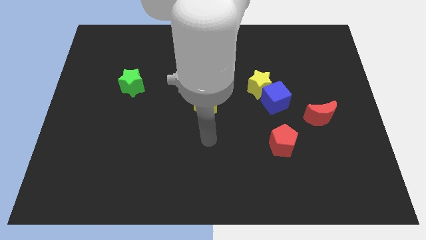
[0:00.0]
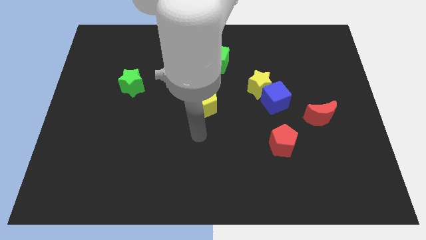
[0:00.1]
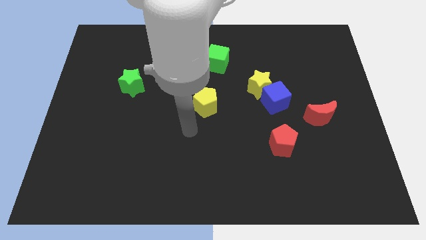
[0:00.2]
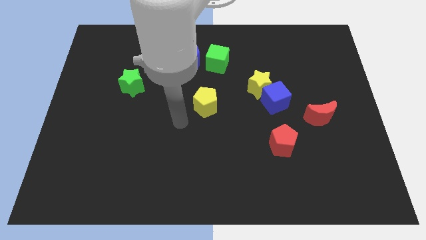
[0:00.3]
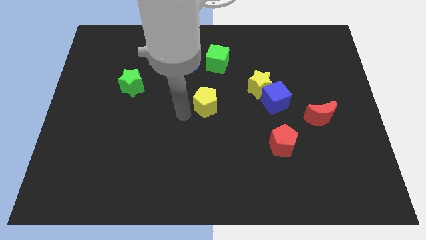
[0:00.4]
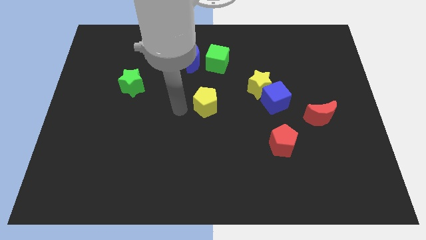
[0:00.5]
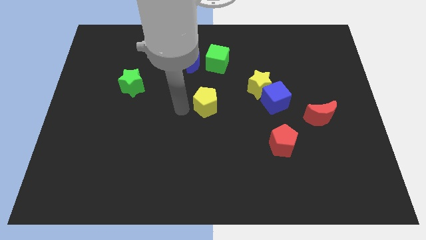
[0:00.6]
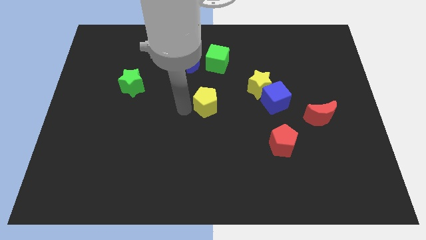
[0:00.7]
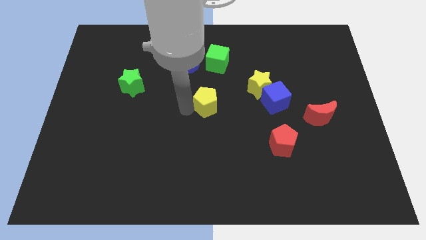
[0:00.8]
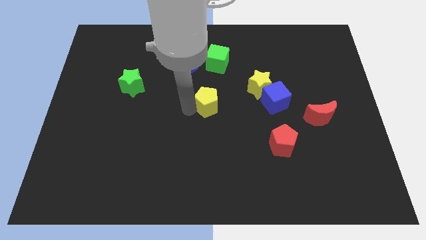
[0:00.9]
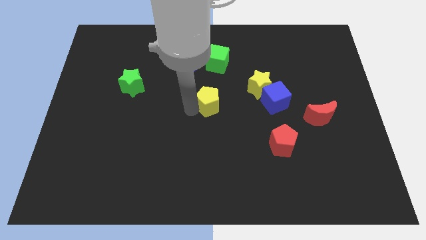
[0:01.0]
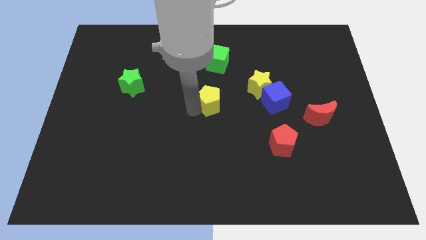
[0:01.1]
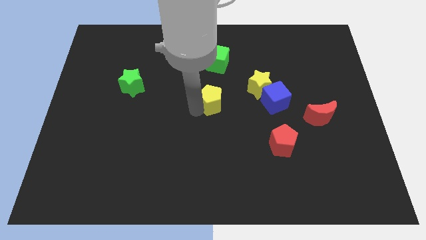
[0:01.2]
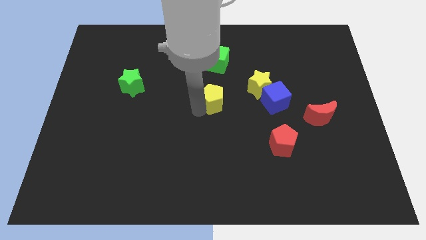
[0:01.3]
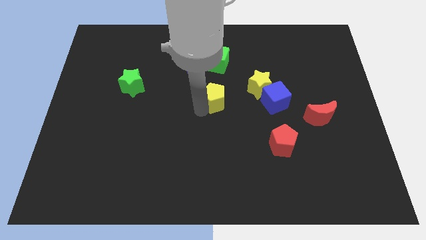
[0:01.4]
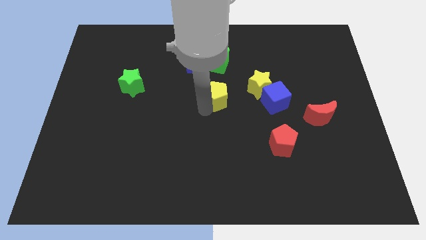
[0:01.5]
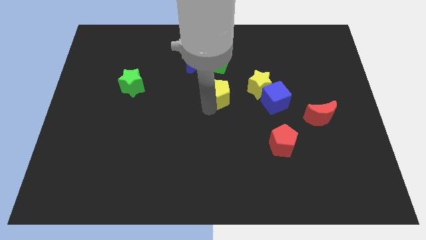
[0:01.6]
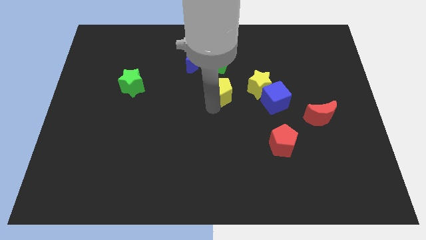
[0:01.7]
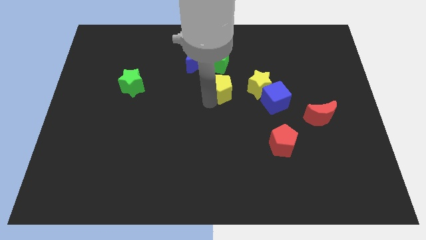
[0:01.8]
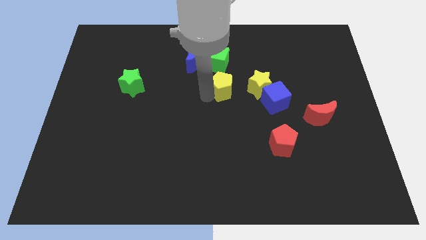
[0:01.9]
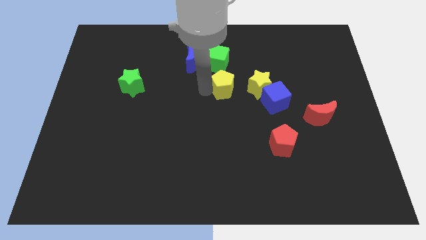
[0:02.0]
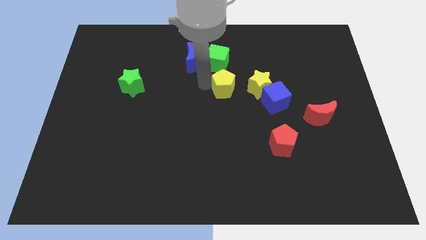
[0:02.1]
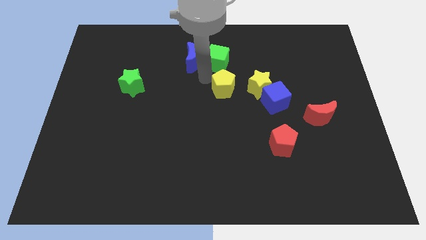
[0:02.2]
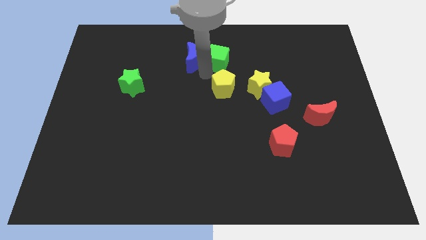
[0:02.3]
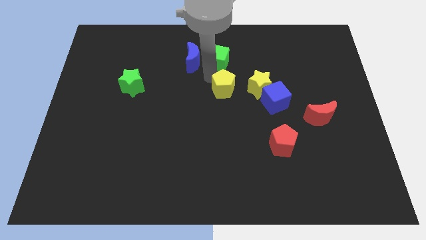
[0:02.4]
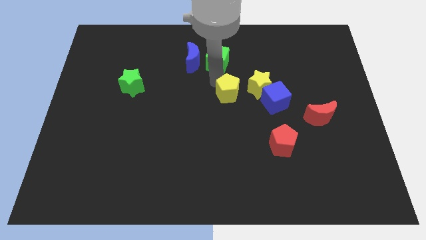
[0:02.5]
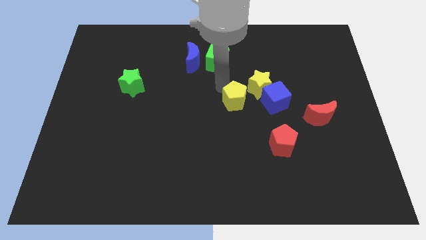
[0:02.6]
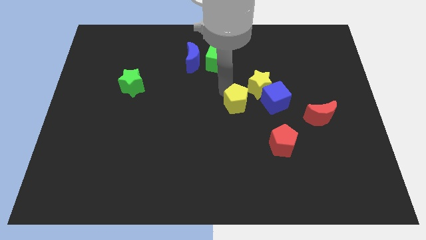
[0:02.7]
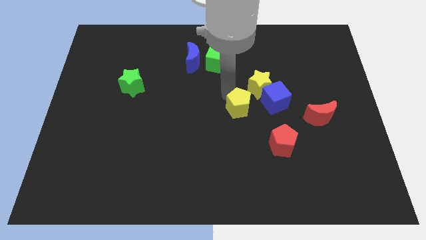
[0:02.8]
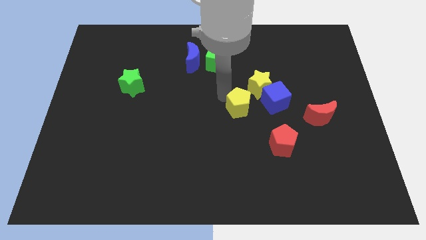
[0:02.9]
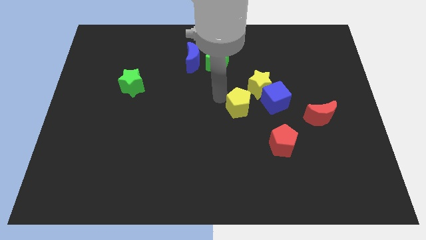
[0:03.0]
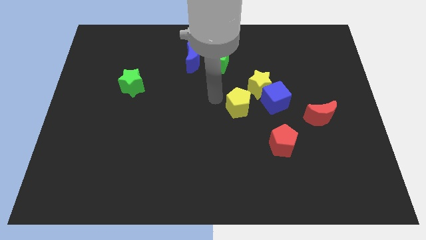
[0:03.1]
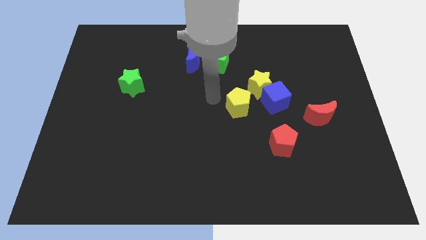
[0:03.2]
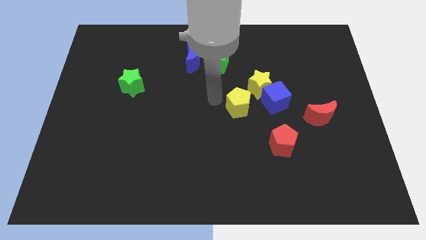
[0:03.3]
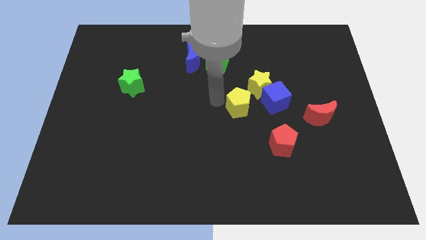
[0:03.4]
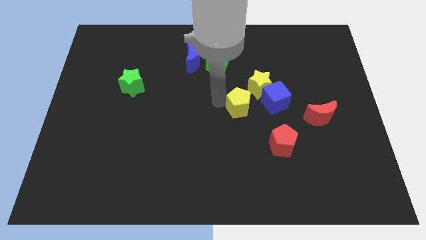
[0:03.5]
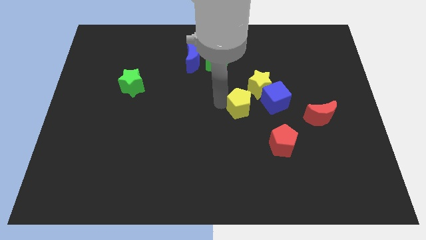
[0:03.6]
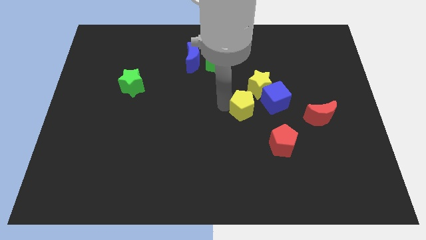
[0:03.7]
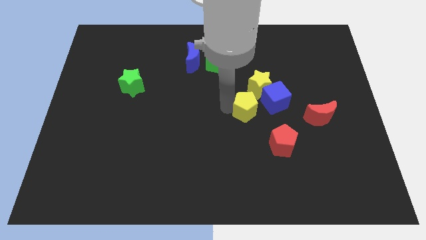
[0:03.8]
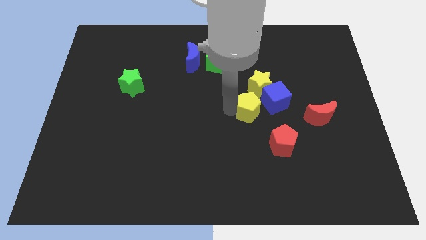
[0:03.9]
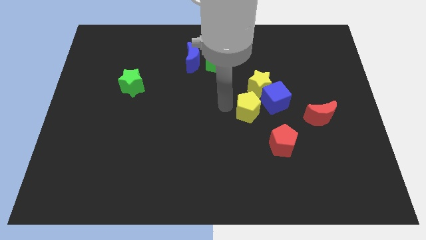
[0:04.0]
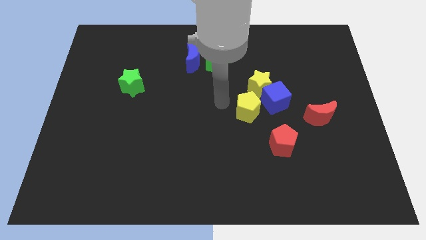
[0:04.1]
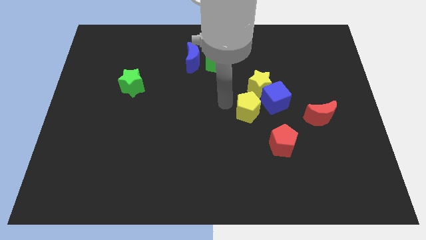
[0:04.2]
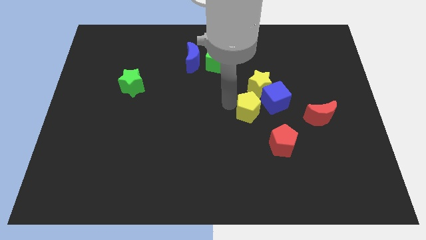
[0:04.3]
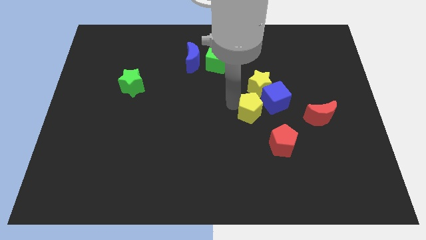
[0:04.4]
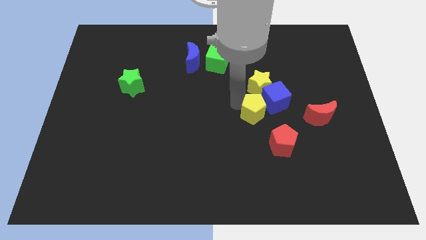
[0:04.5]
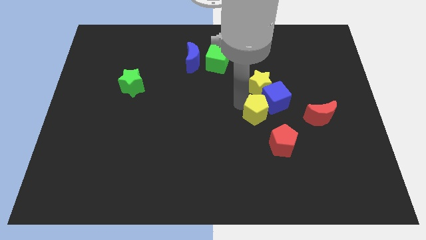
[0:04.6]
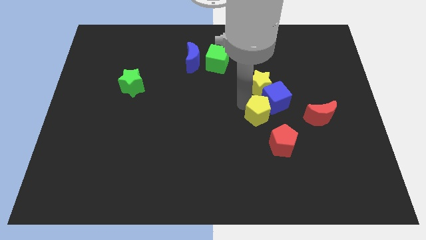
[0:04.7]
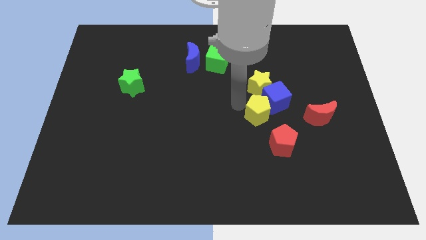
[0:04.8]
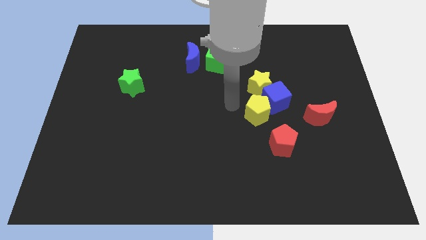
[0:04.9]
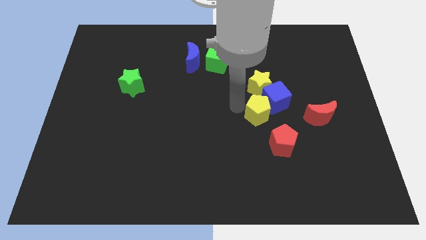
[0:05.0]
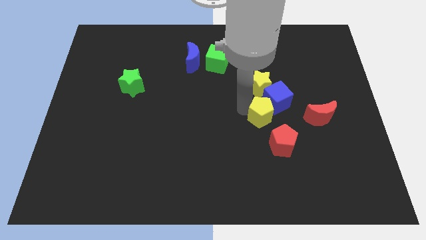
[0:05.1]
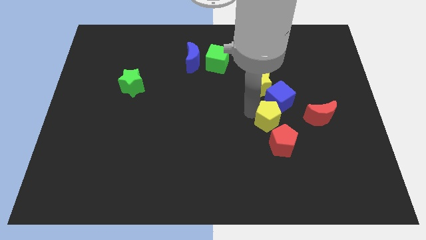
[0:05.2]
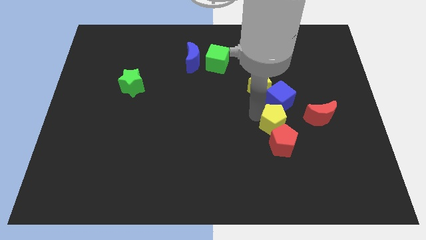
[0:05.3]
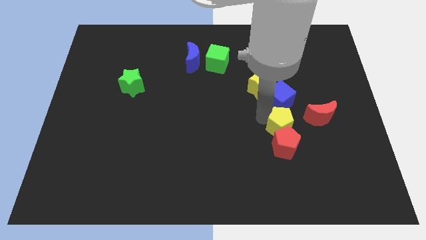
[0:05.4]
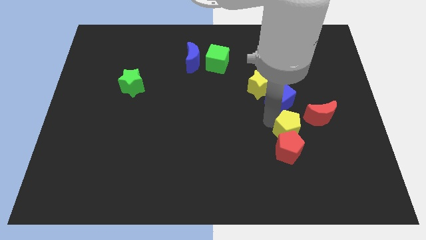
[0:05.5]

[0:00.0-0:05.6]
move the yellow pentagon diagonally down and to the left of the red moon

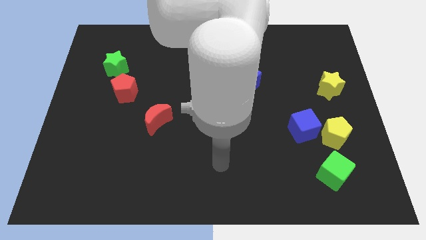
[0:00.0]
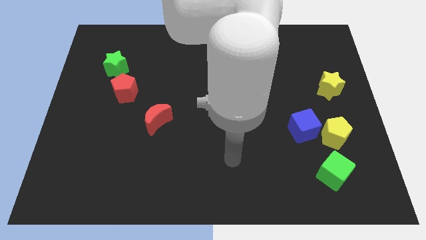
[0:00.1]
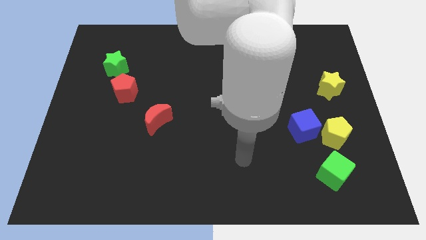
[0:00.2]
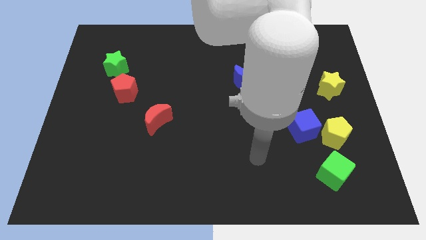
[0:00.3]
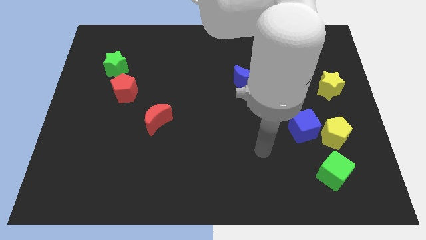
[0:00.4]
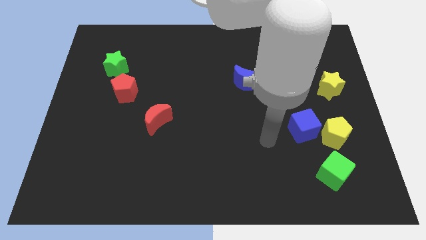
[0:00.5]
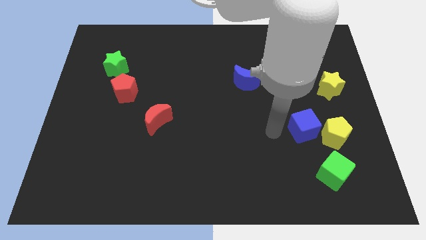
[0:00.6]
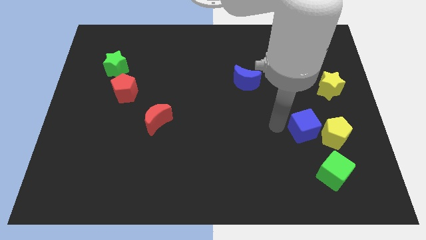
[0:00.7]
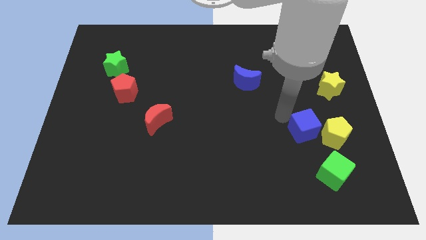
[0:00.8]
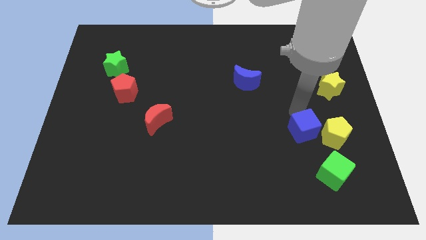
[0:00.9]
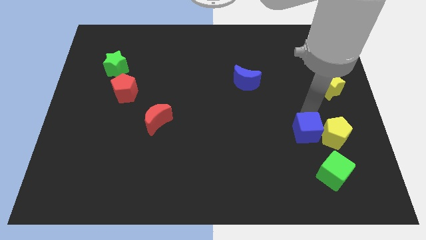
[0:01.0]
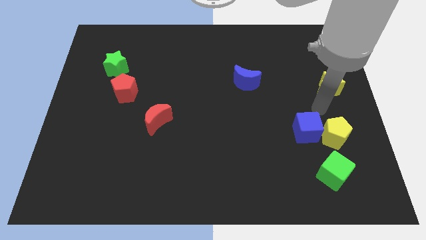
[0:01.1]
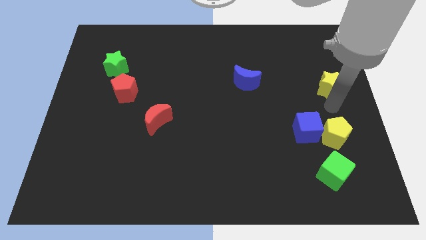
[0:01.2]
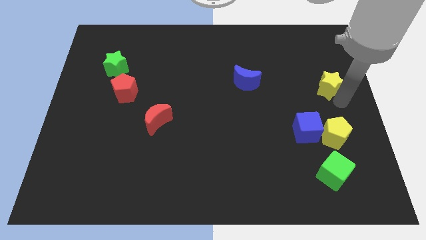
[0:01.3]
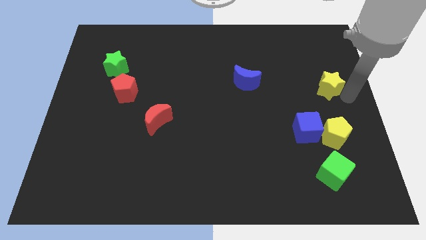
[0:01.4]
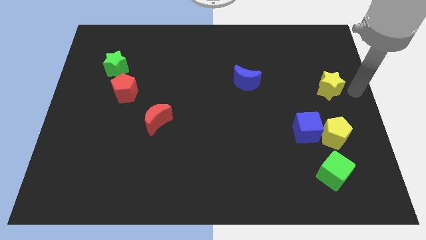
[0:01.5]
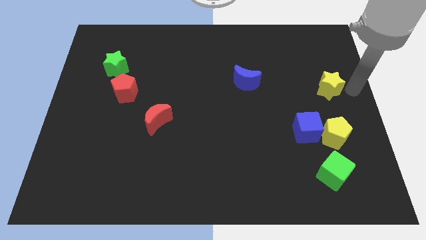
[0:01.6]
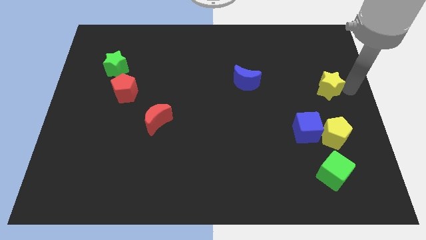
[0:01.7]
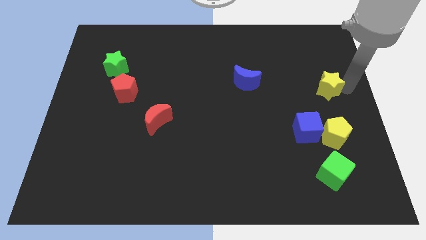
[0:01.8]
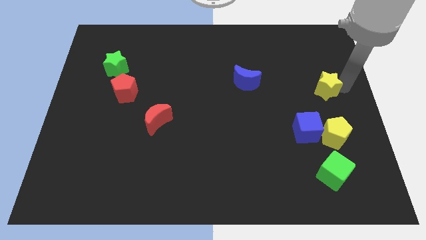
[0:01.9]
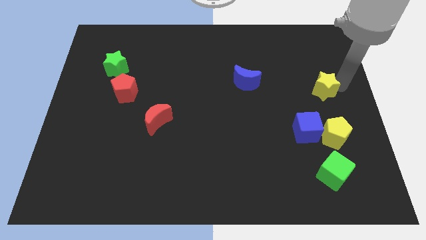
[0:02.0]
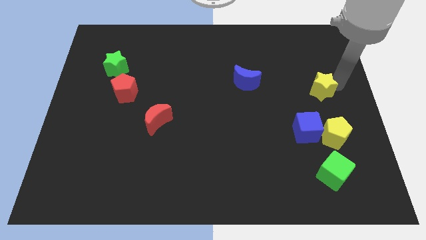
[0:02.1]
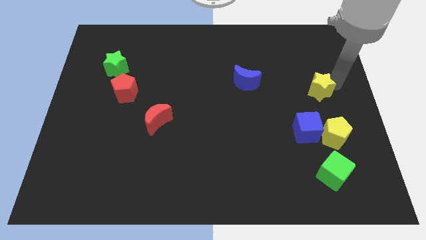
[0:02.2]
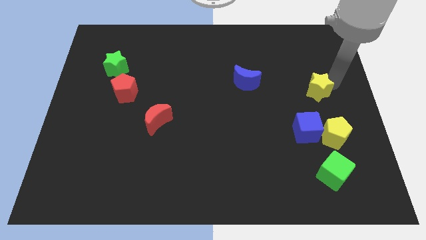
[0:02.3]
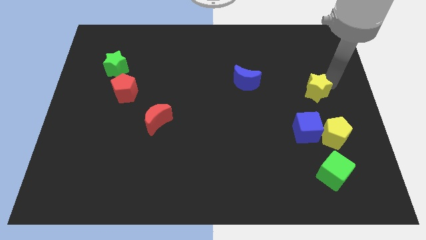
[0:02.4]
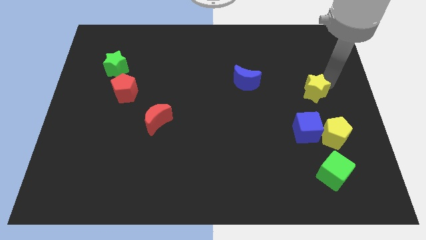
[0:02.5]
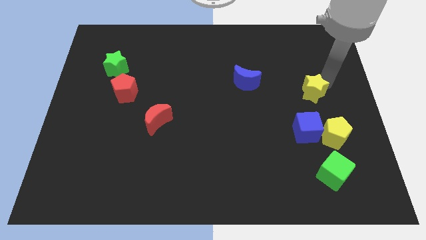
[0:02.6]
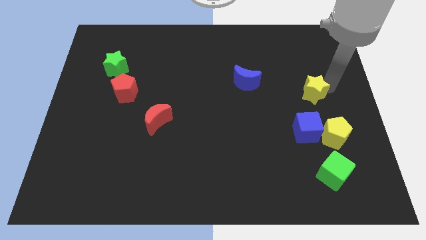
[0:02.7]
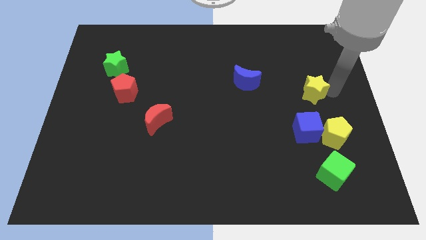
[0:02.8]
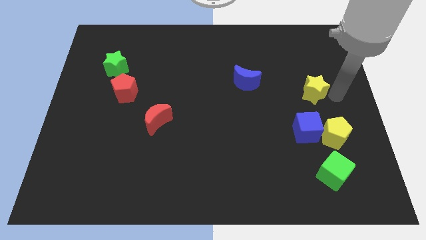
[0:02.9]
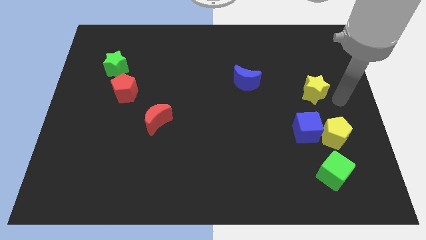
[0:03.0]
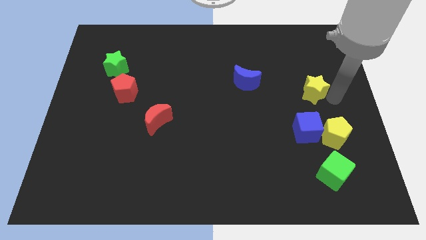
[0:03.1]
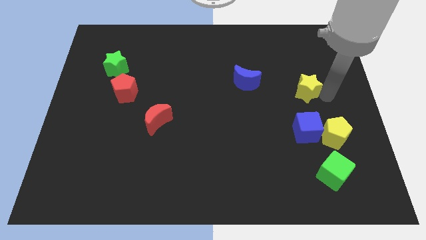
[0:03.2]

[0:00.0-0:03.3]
put the yellow star right of the blue moon
